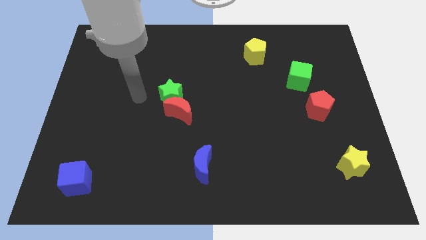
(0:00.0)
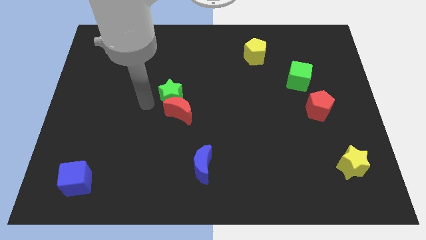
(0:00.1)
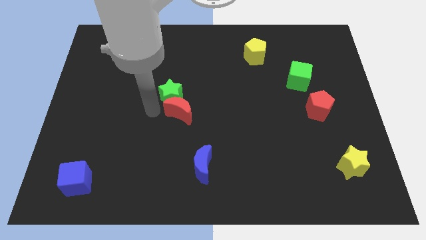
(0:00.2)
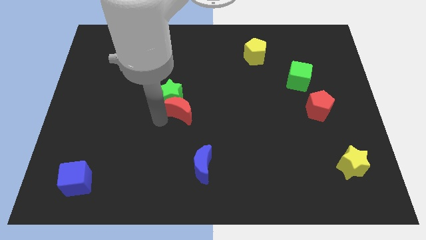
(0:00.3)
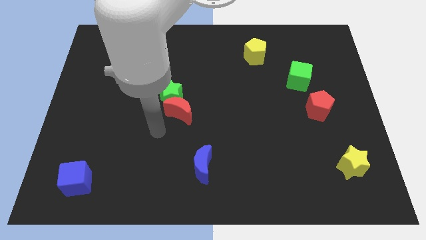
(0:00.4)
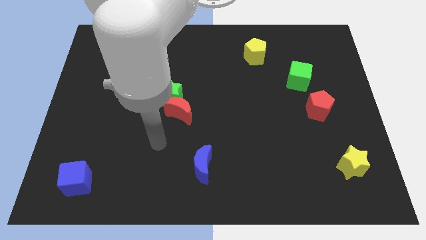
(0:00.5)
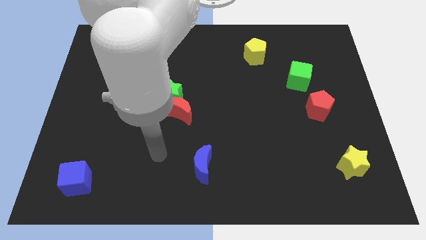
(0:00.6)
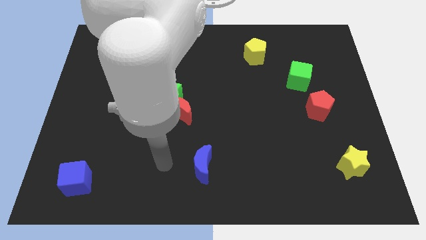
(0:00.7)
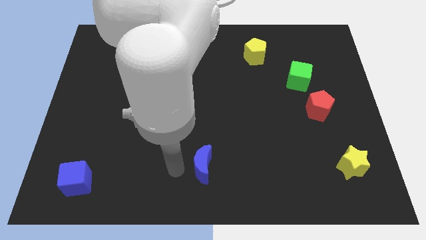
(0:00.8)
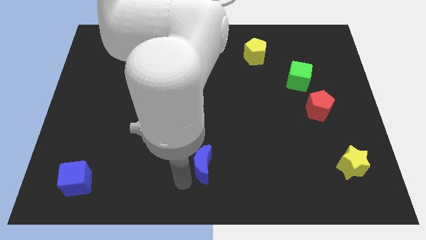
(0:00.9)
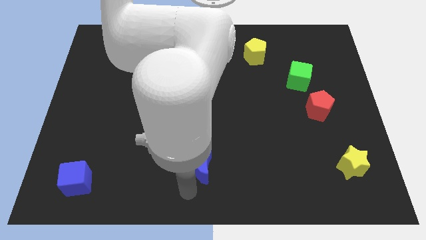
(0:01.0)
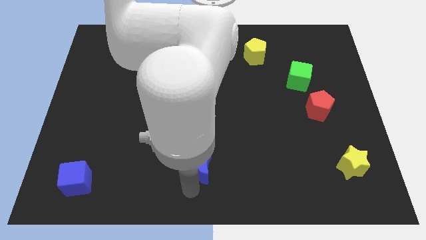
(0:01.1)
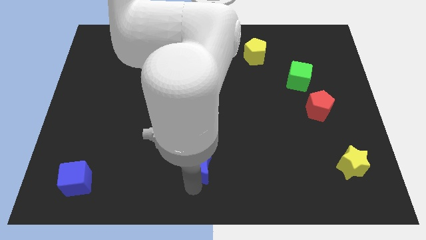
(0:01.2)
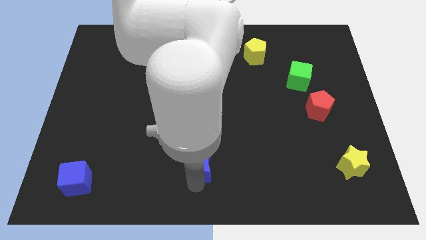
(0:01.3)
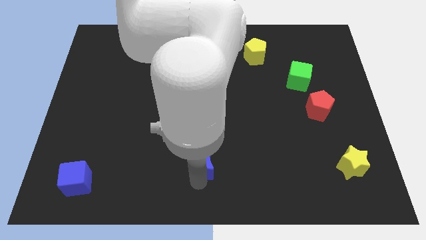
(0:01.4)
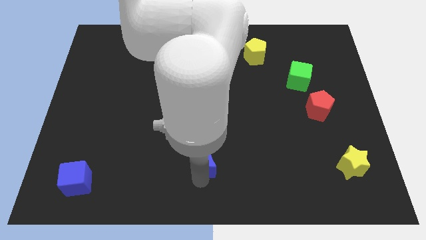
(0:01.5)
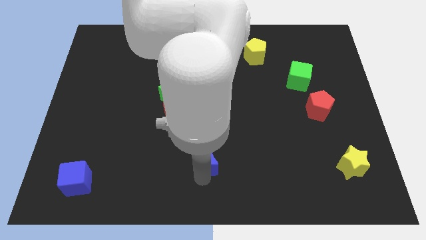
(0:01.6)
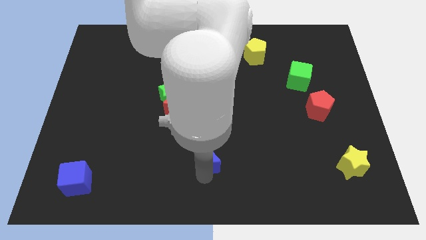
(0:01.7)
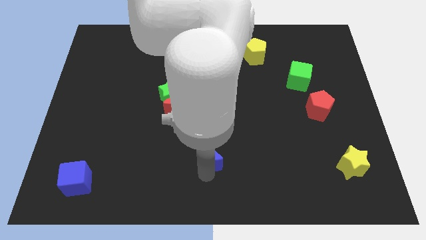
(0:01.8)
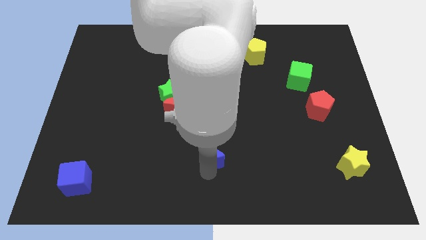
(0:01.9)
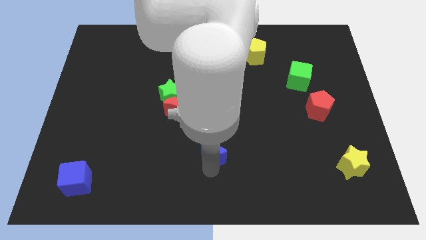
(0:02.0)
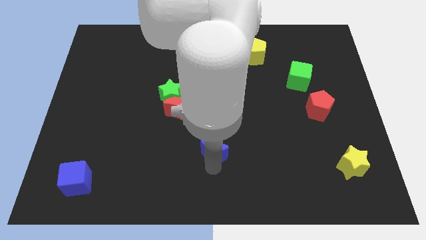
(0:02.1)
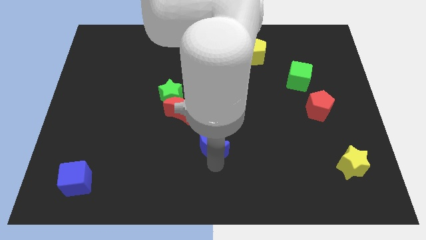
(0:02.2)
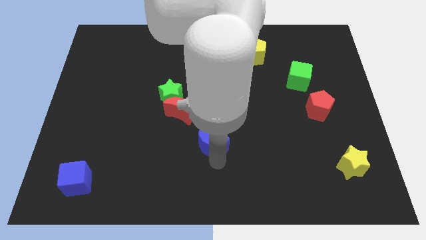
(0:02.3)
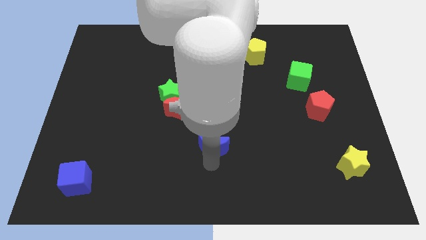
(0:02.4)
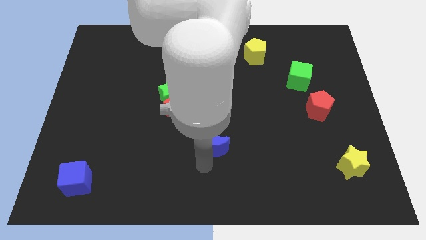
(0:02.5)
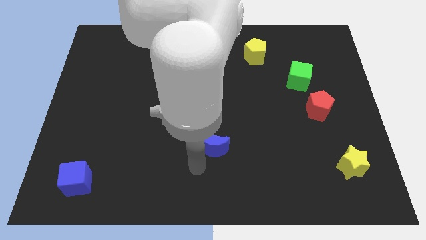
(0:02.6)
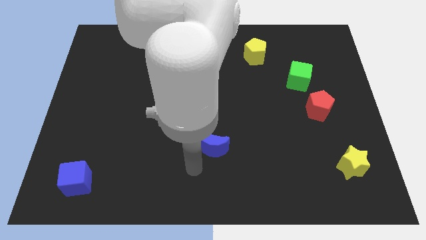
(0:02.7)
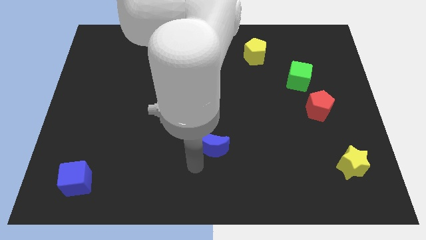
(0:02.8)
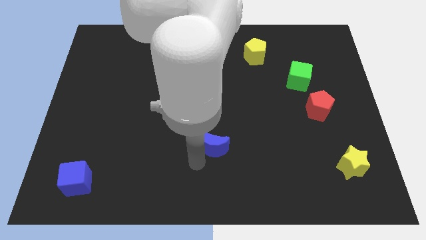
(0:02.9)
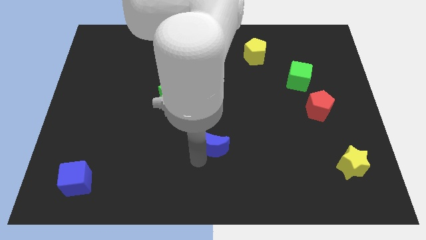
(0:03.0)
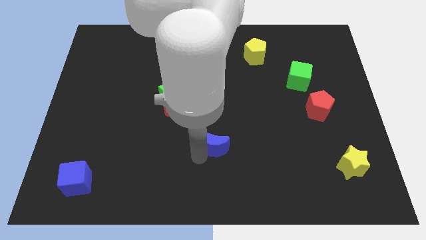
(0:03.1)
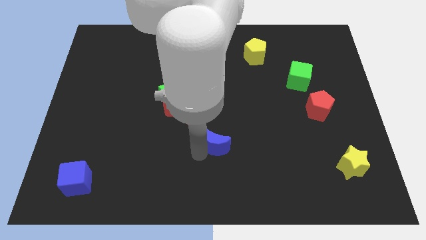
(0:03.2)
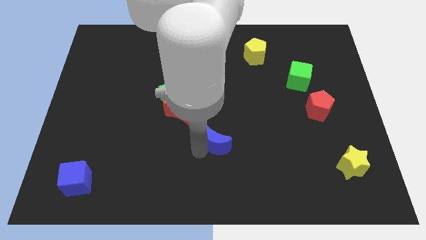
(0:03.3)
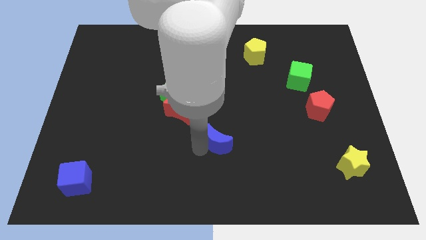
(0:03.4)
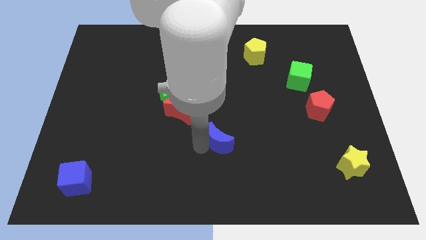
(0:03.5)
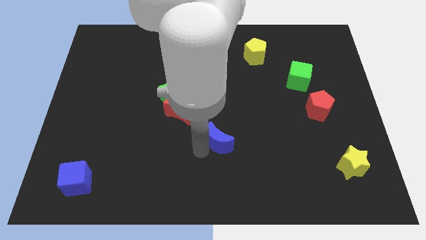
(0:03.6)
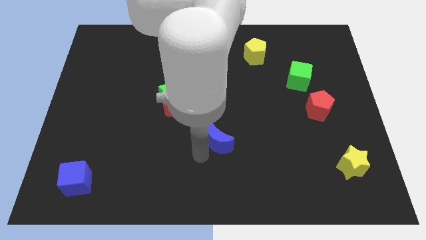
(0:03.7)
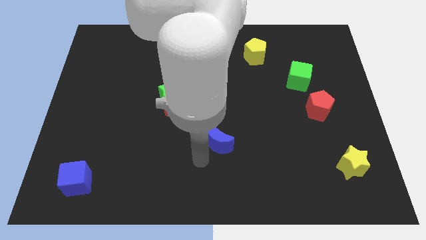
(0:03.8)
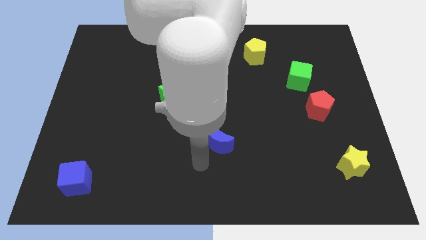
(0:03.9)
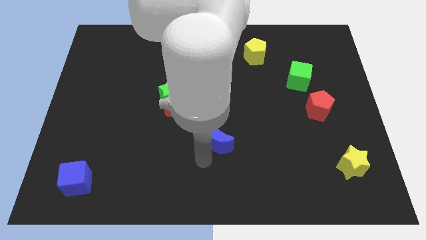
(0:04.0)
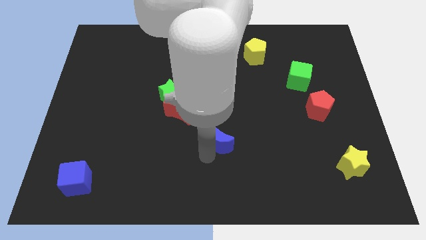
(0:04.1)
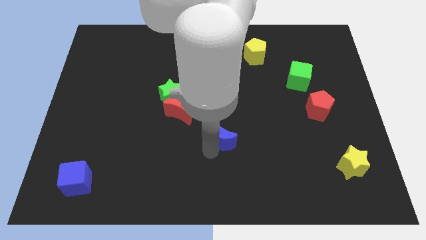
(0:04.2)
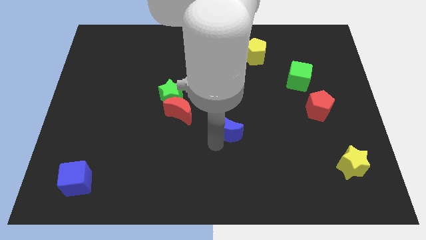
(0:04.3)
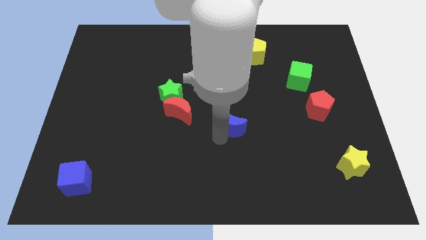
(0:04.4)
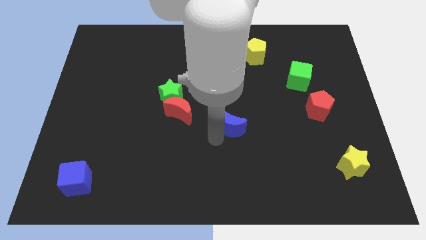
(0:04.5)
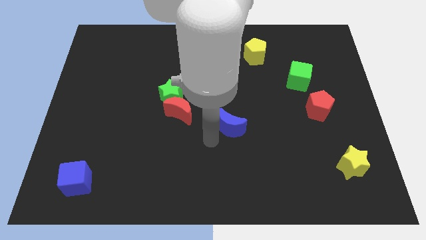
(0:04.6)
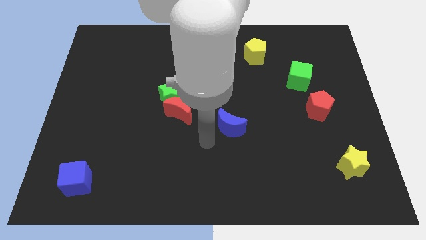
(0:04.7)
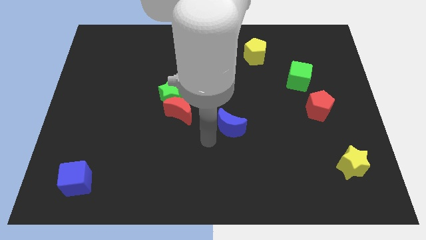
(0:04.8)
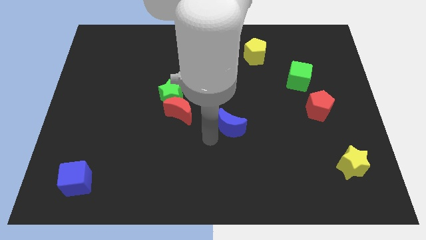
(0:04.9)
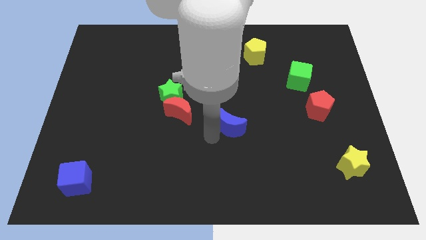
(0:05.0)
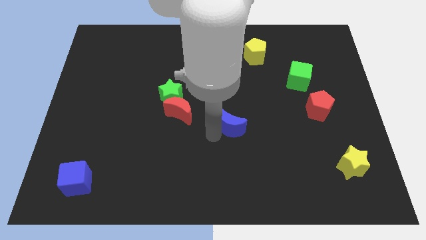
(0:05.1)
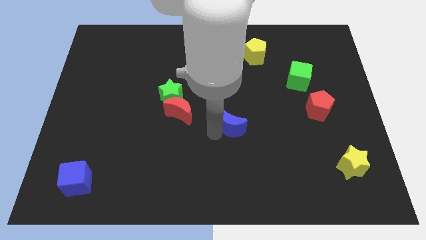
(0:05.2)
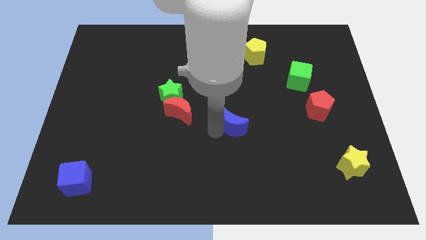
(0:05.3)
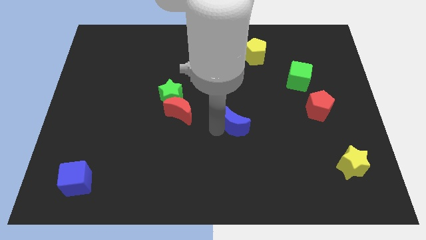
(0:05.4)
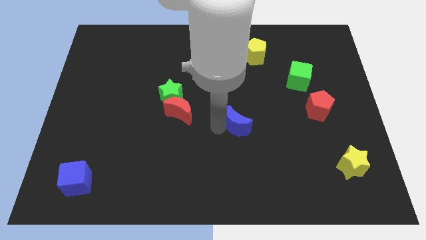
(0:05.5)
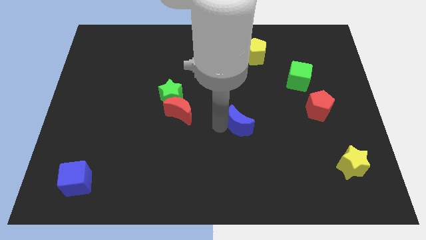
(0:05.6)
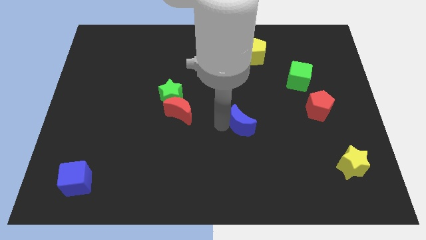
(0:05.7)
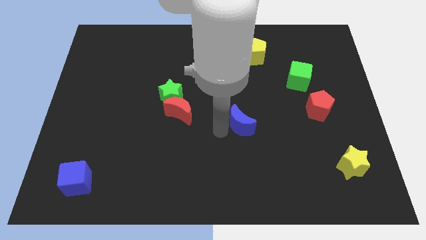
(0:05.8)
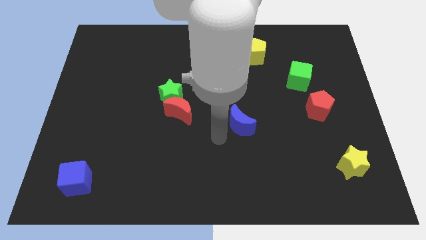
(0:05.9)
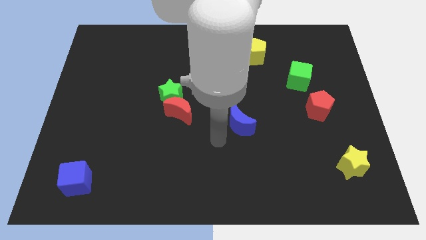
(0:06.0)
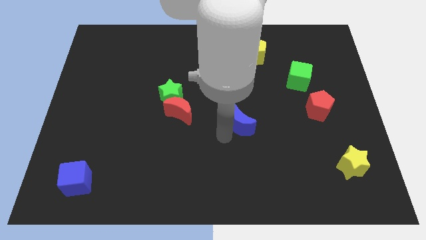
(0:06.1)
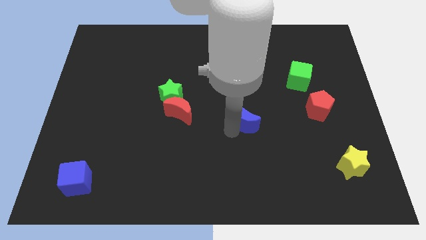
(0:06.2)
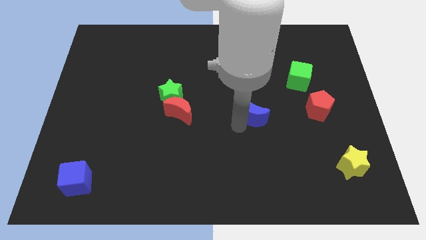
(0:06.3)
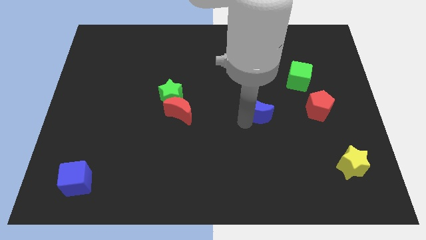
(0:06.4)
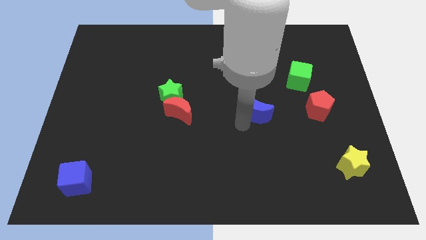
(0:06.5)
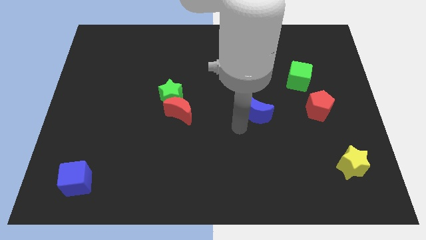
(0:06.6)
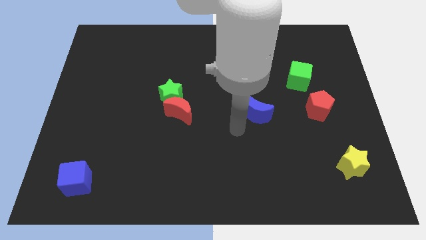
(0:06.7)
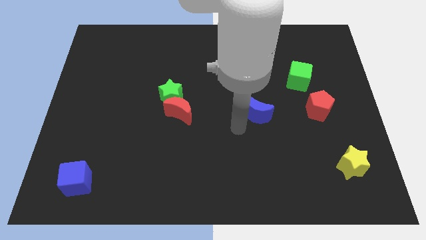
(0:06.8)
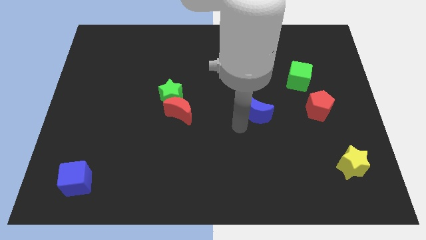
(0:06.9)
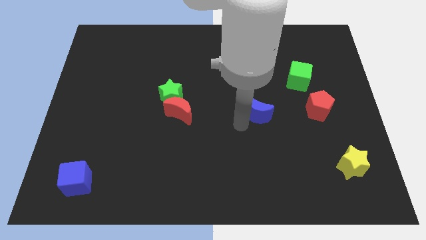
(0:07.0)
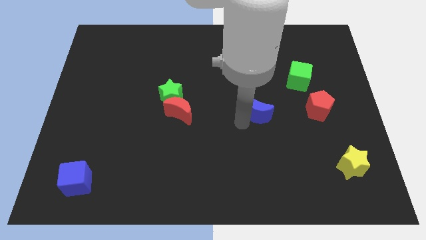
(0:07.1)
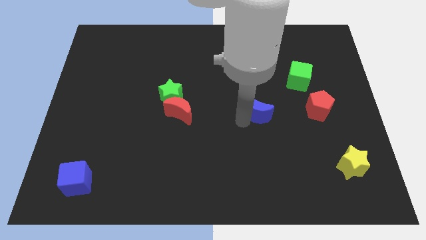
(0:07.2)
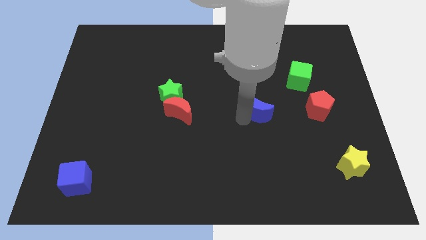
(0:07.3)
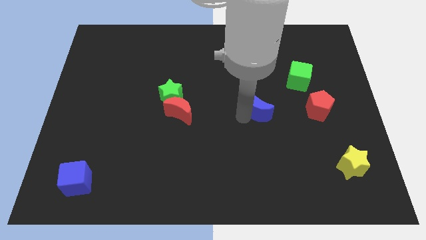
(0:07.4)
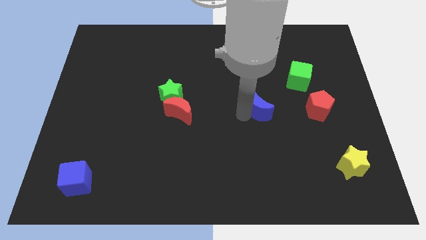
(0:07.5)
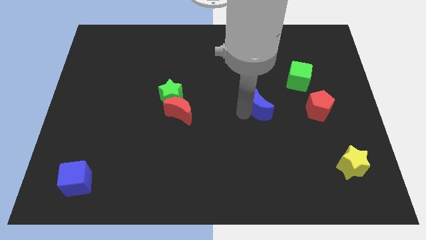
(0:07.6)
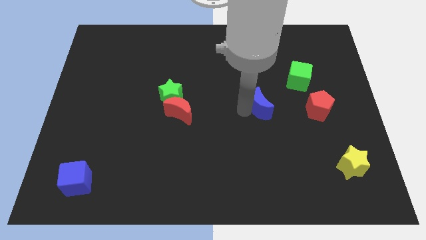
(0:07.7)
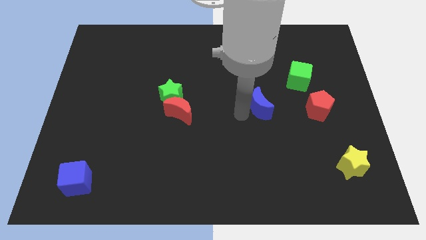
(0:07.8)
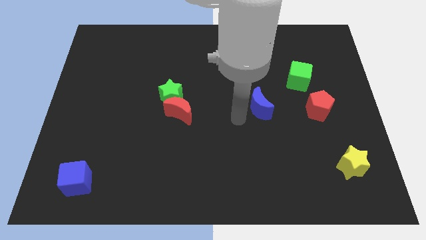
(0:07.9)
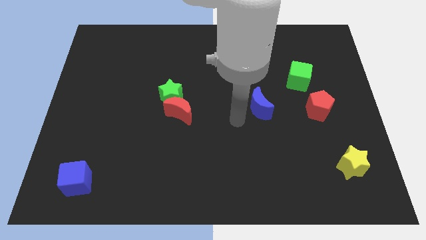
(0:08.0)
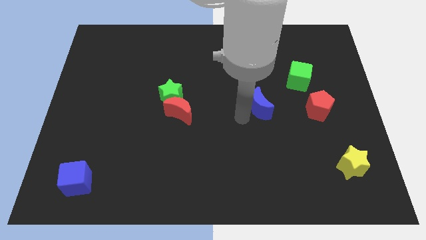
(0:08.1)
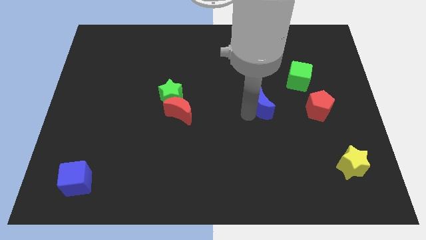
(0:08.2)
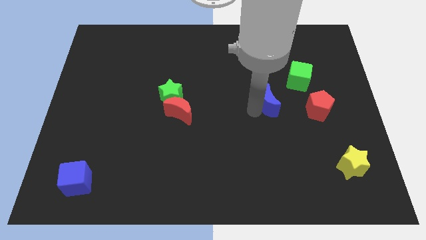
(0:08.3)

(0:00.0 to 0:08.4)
put the blue moon diagonally down and to the left of the green cube
